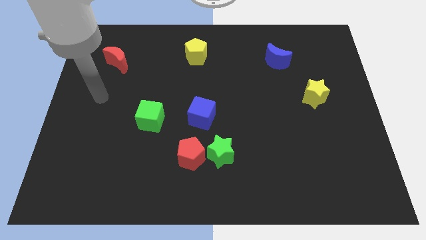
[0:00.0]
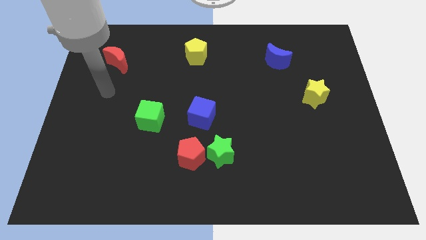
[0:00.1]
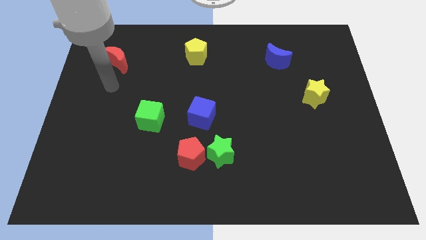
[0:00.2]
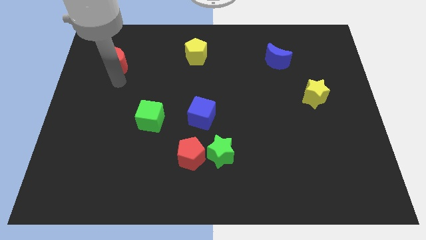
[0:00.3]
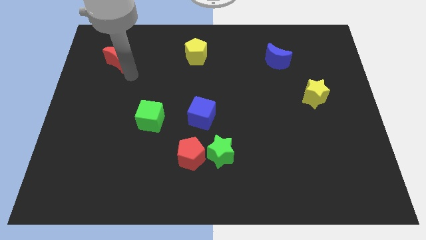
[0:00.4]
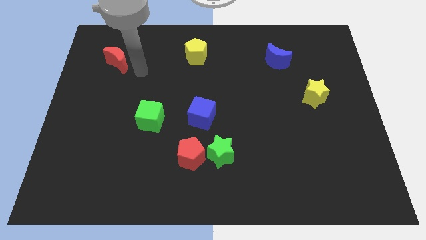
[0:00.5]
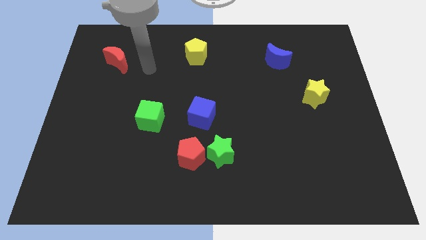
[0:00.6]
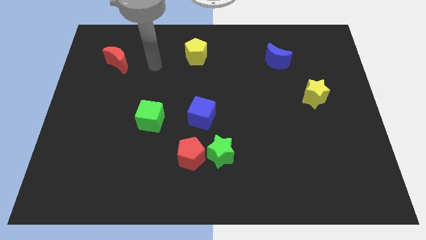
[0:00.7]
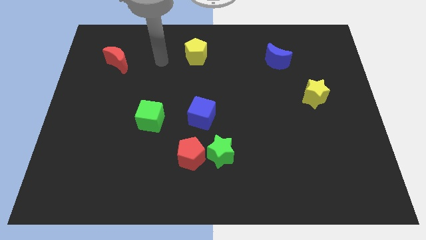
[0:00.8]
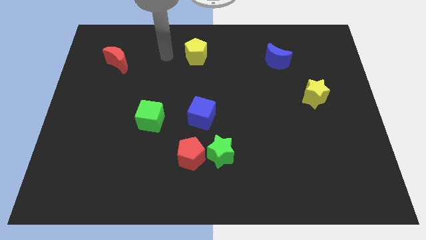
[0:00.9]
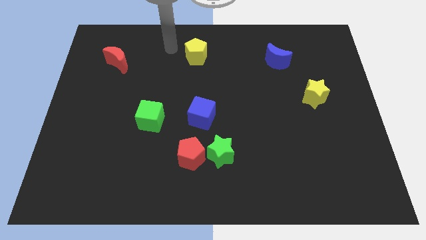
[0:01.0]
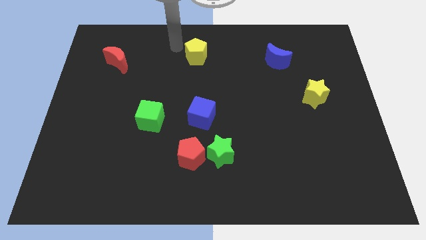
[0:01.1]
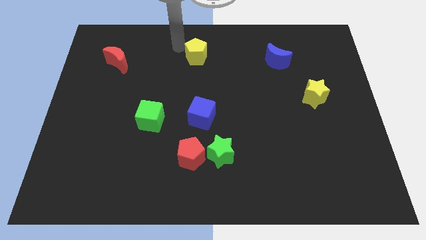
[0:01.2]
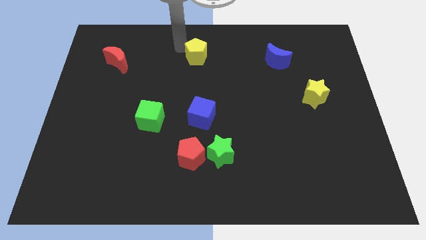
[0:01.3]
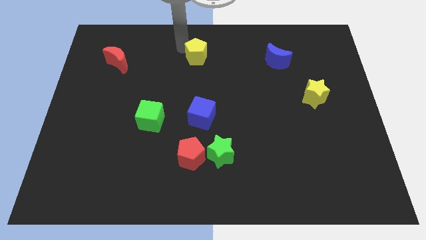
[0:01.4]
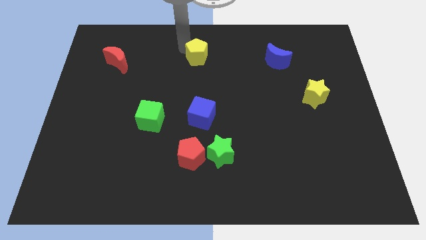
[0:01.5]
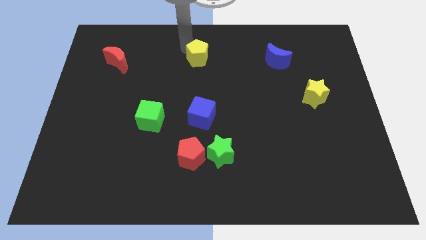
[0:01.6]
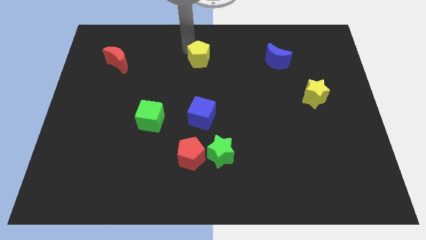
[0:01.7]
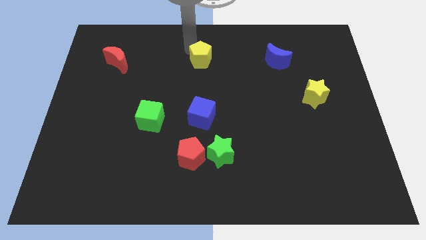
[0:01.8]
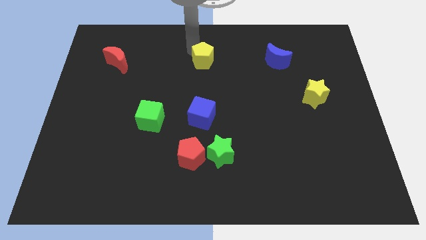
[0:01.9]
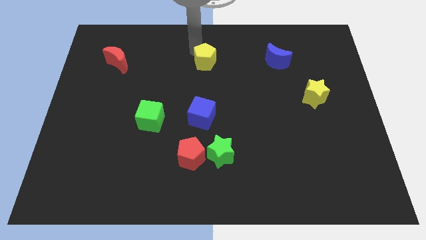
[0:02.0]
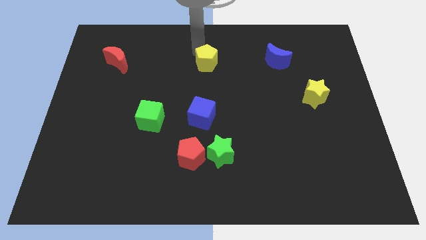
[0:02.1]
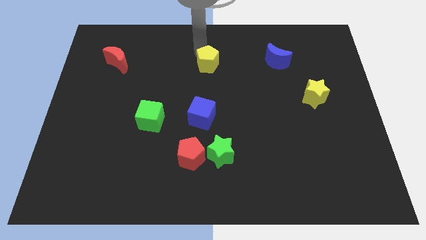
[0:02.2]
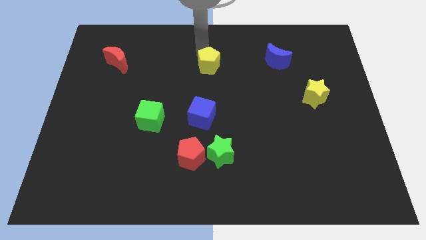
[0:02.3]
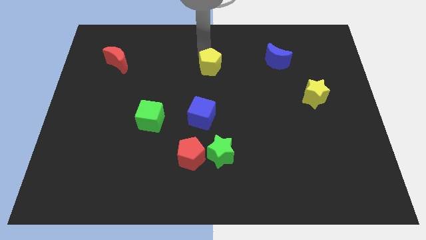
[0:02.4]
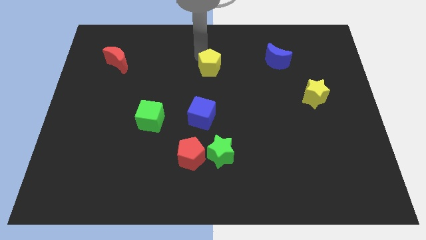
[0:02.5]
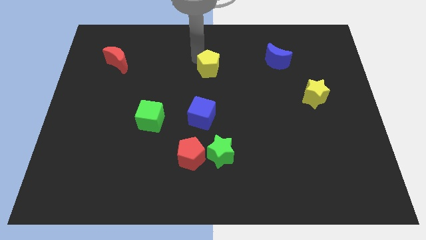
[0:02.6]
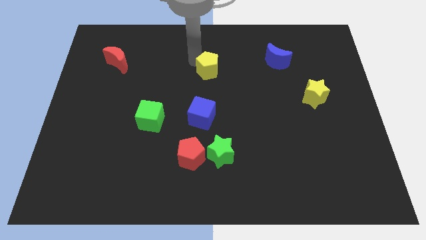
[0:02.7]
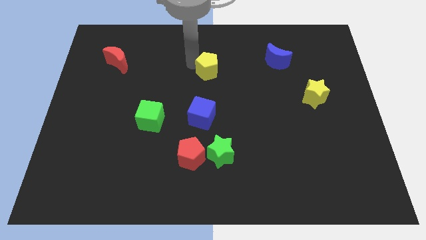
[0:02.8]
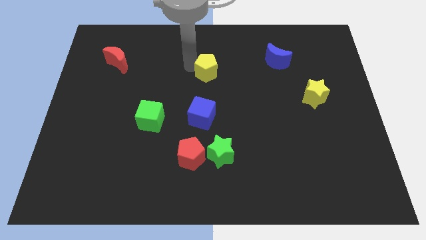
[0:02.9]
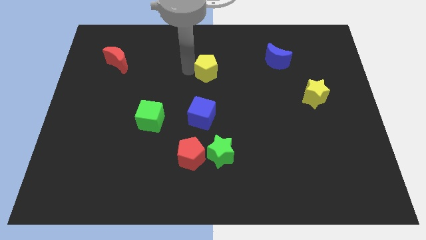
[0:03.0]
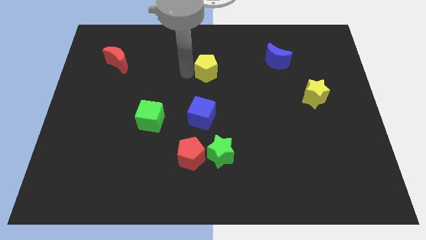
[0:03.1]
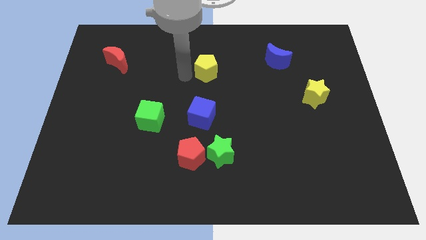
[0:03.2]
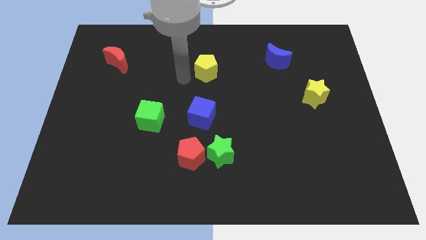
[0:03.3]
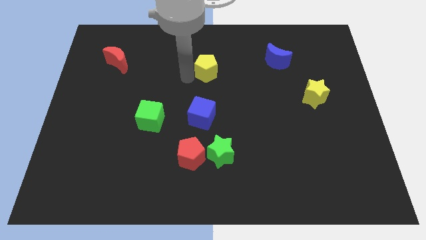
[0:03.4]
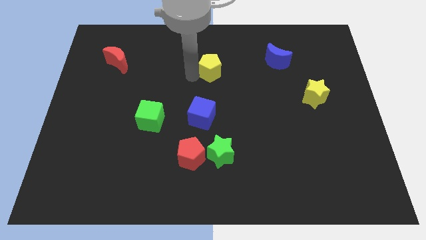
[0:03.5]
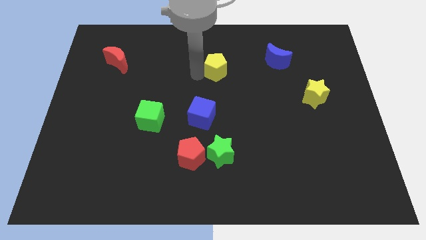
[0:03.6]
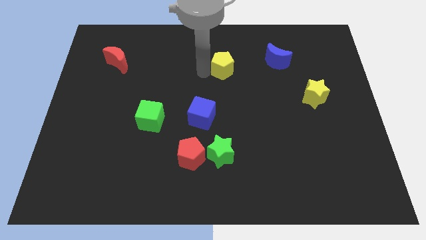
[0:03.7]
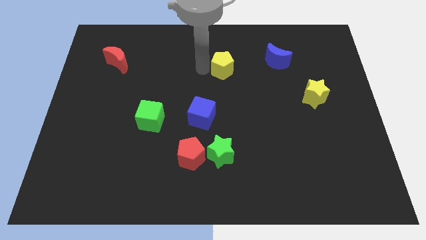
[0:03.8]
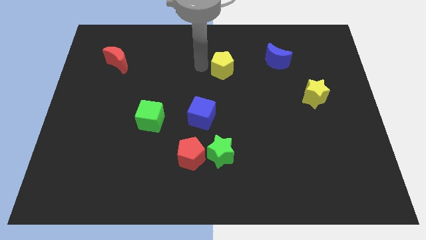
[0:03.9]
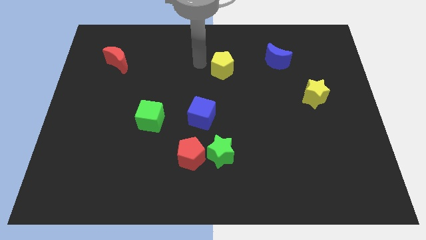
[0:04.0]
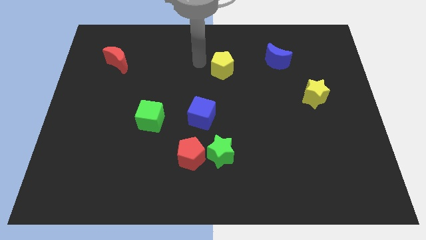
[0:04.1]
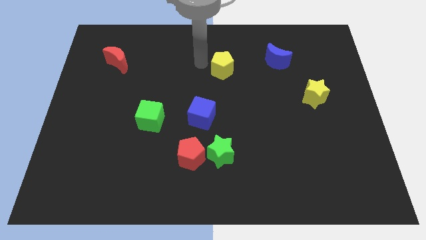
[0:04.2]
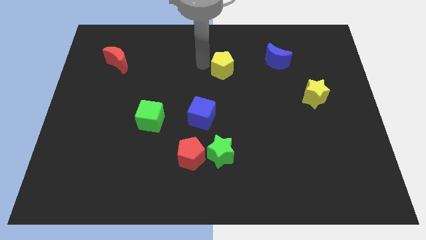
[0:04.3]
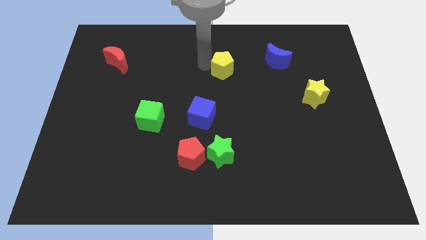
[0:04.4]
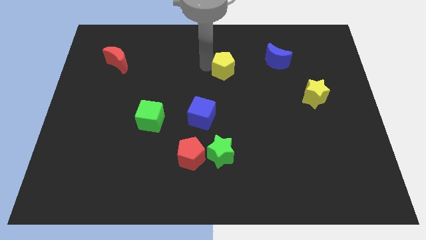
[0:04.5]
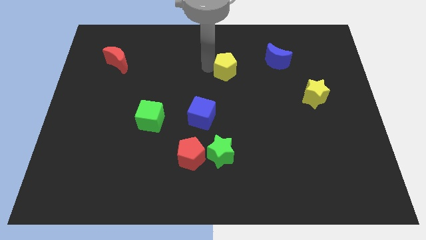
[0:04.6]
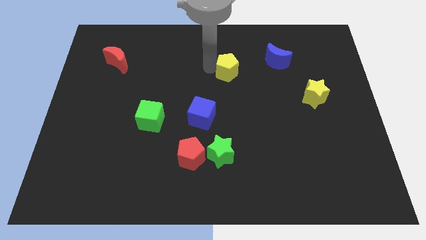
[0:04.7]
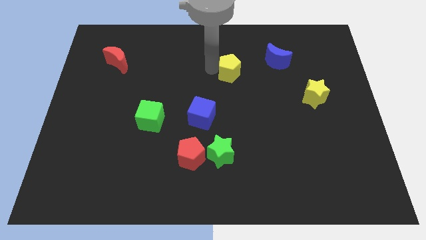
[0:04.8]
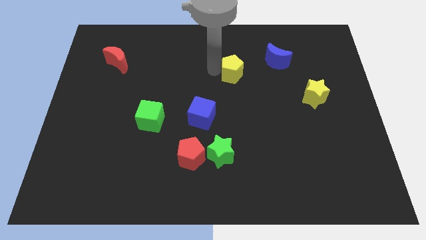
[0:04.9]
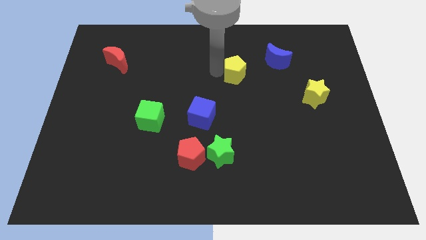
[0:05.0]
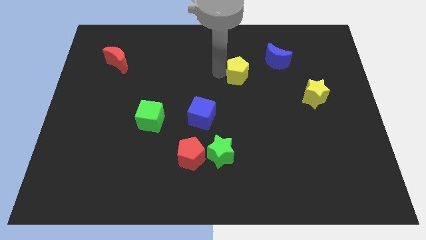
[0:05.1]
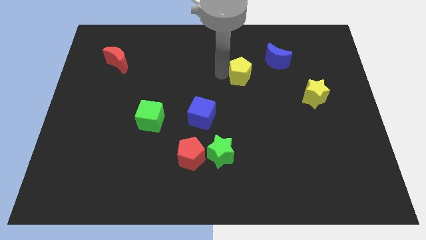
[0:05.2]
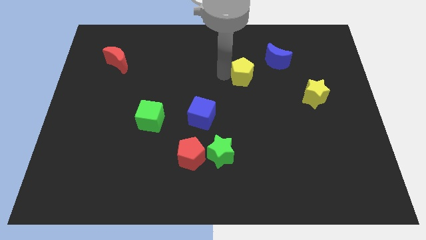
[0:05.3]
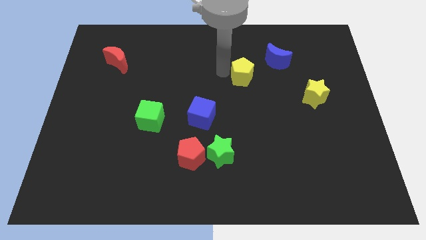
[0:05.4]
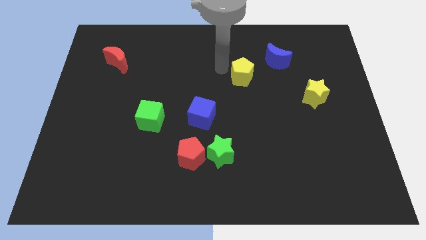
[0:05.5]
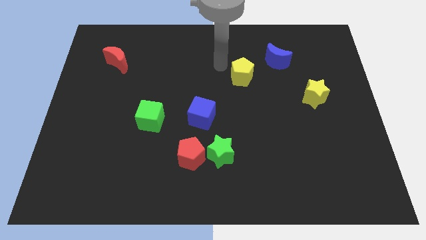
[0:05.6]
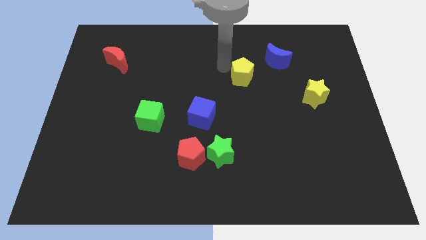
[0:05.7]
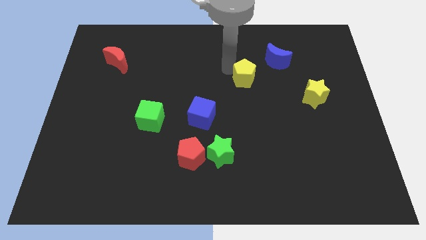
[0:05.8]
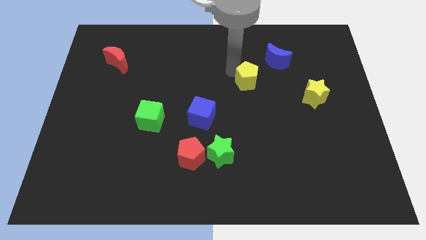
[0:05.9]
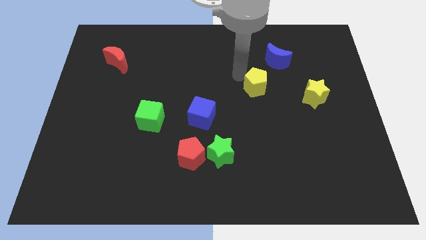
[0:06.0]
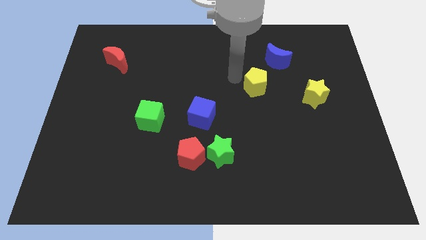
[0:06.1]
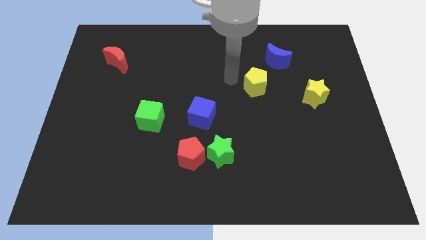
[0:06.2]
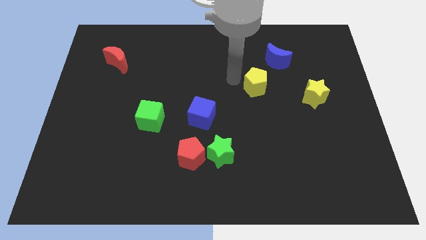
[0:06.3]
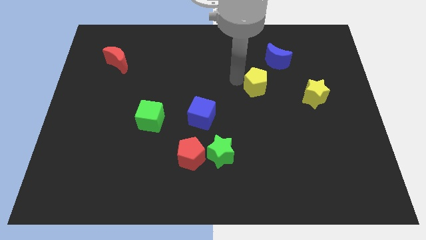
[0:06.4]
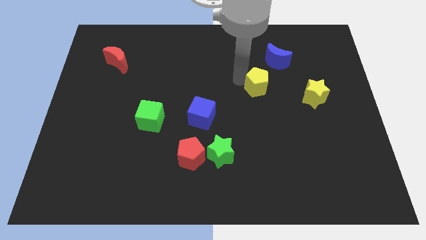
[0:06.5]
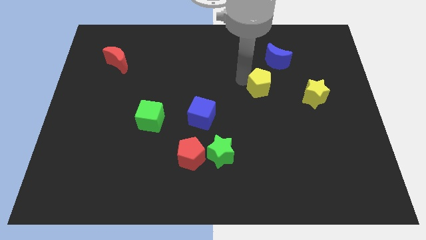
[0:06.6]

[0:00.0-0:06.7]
put the yellow pentagon to the bottom of the blue moon

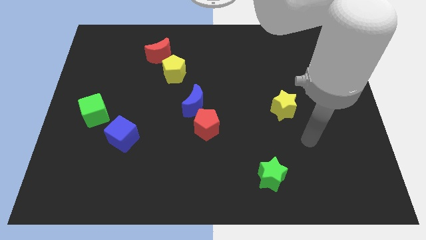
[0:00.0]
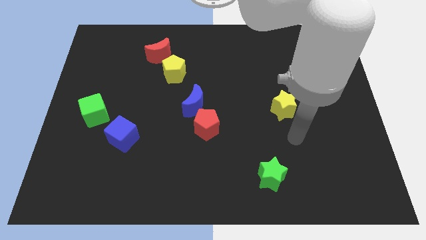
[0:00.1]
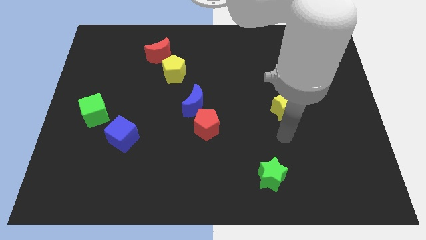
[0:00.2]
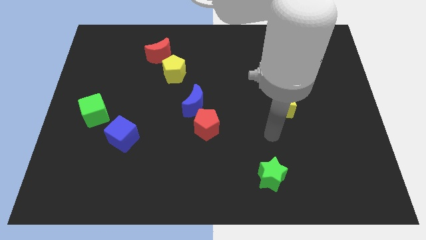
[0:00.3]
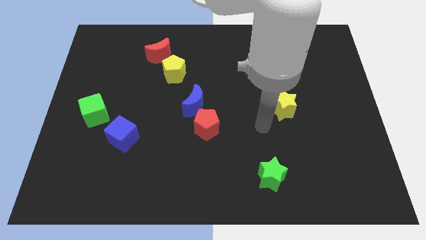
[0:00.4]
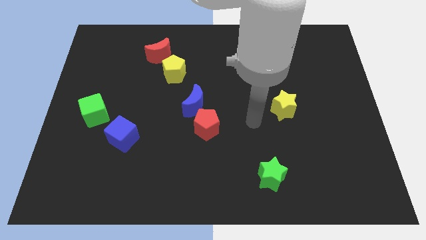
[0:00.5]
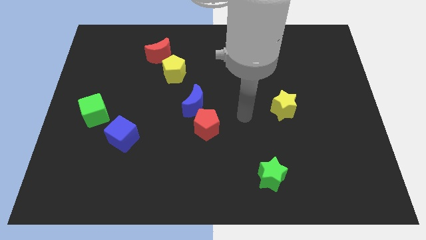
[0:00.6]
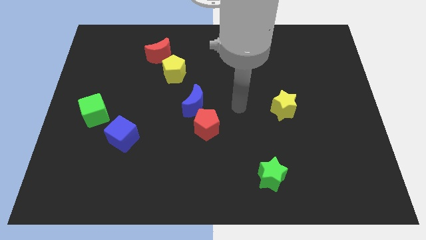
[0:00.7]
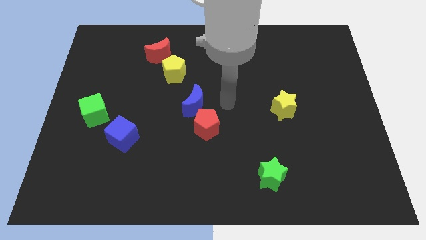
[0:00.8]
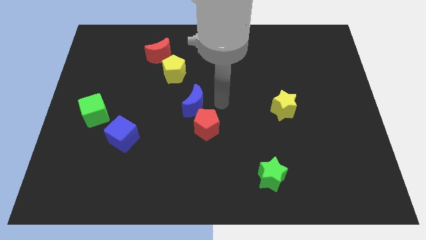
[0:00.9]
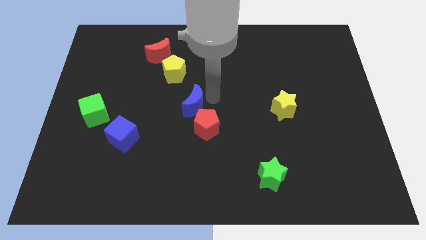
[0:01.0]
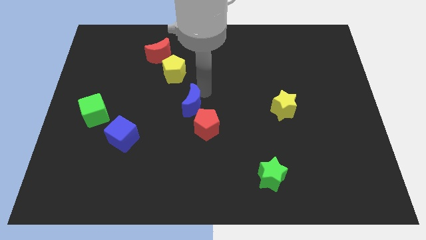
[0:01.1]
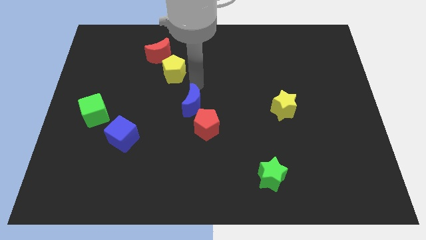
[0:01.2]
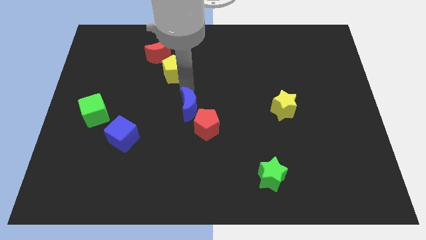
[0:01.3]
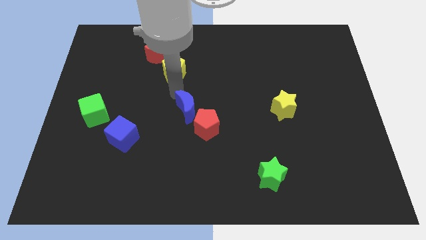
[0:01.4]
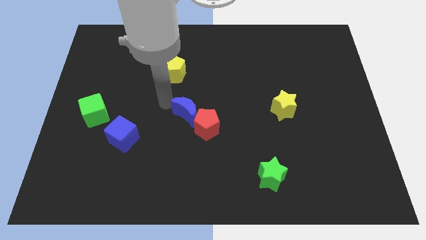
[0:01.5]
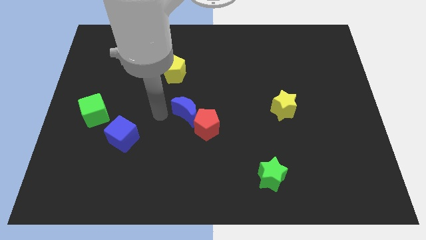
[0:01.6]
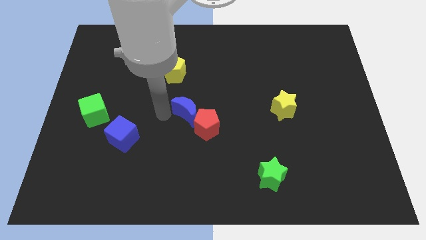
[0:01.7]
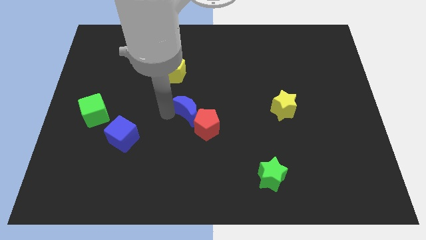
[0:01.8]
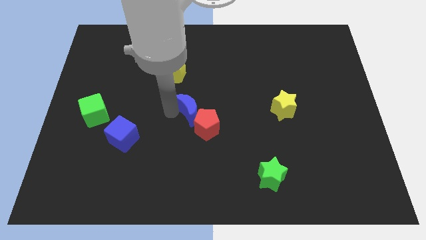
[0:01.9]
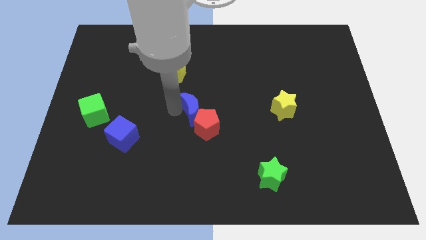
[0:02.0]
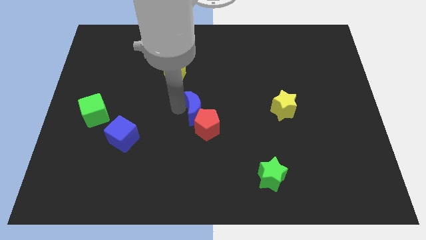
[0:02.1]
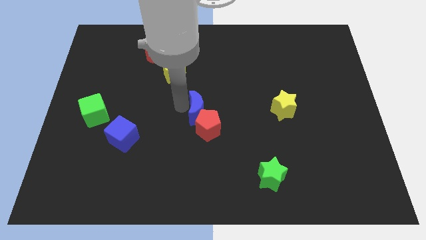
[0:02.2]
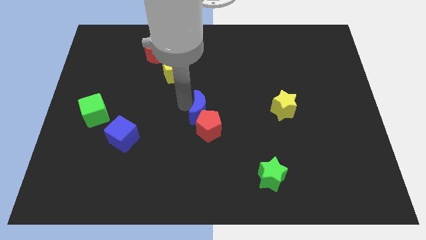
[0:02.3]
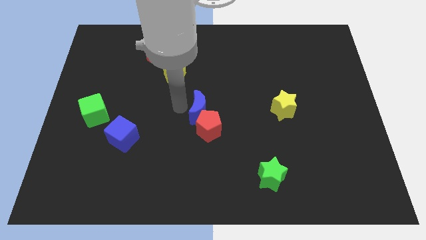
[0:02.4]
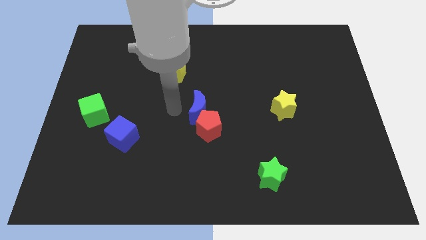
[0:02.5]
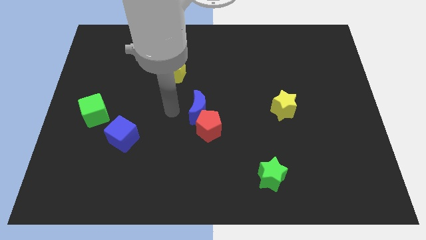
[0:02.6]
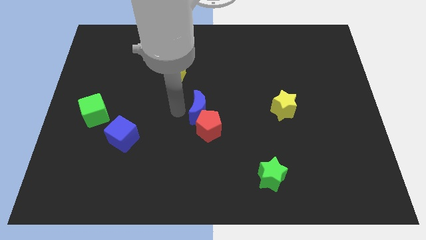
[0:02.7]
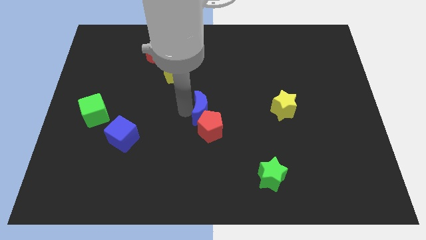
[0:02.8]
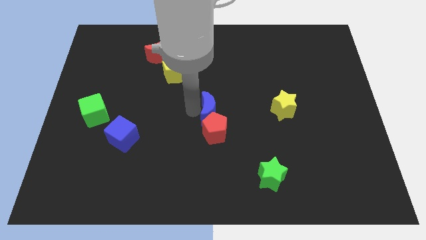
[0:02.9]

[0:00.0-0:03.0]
slide the blue moon to the top right side of the red pentagon
